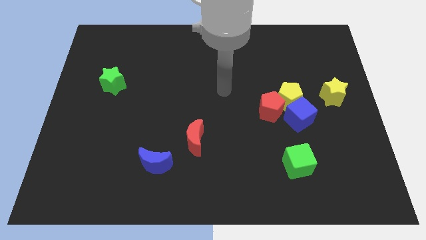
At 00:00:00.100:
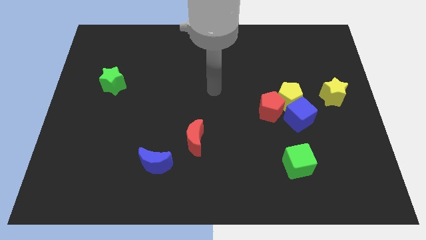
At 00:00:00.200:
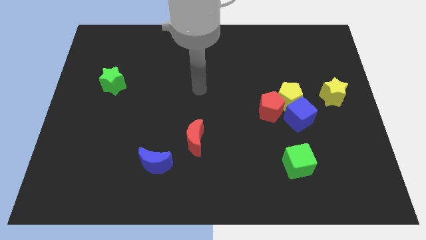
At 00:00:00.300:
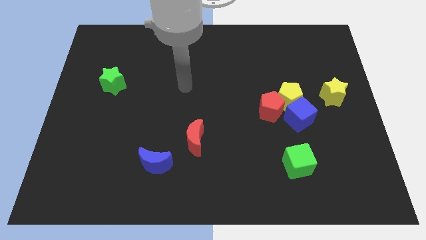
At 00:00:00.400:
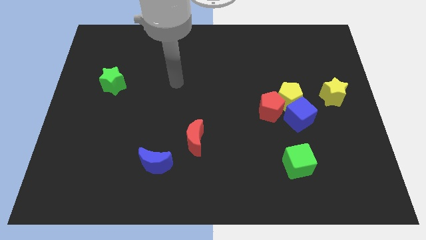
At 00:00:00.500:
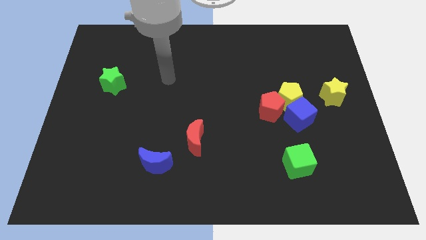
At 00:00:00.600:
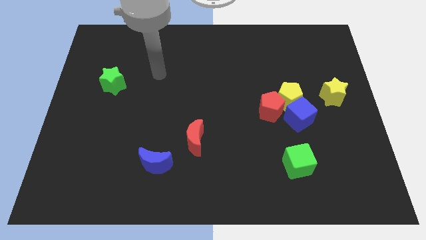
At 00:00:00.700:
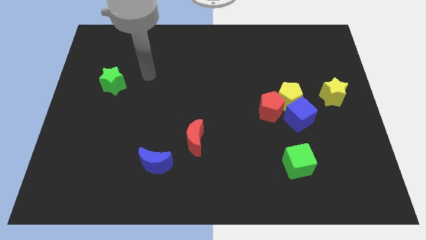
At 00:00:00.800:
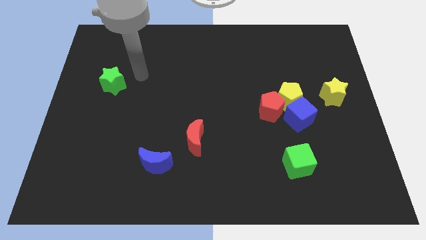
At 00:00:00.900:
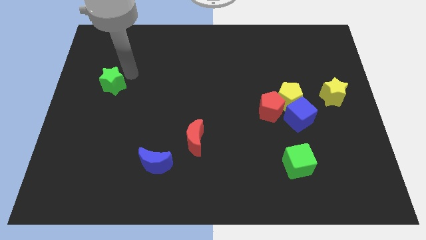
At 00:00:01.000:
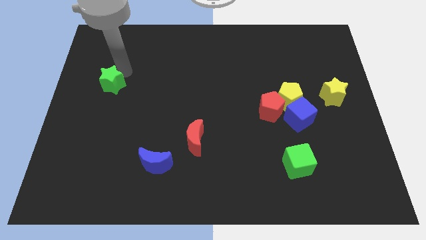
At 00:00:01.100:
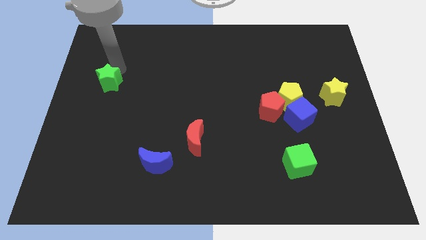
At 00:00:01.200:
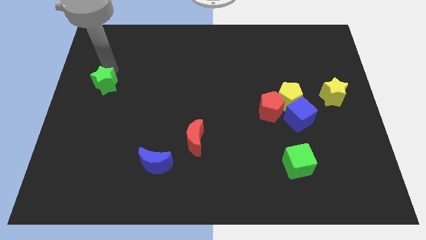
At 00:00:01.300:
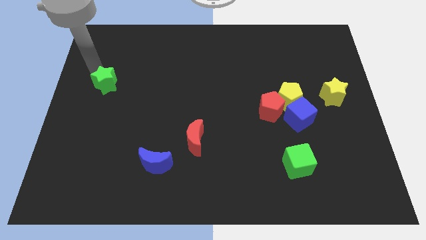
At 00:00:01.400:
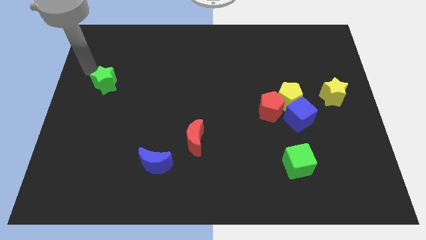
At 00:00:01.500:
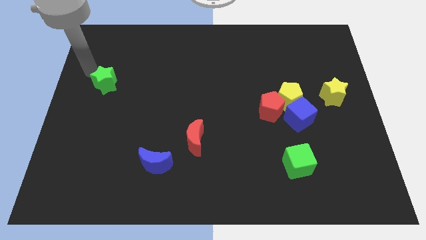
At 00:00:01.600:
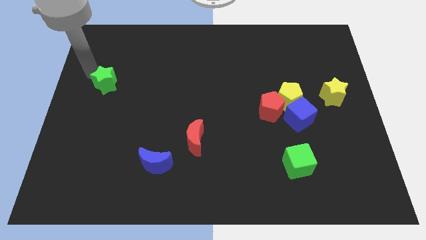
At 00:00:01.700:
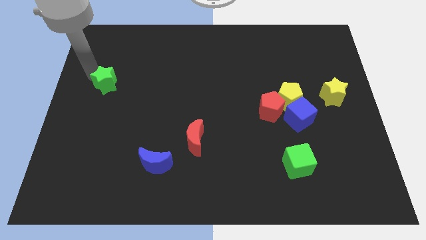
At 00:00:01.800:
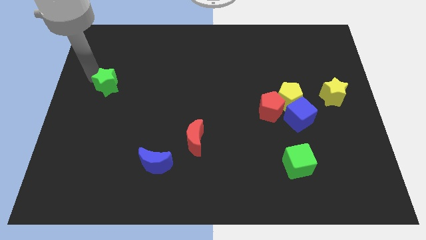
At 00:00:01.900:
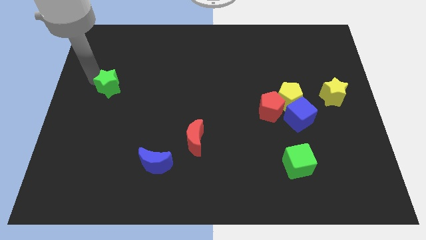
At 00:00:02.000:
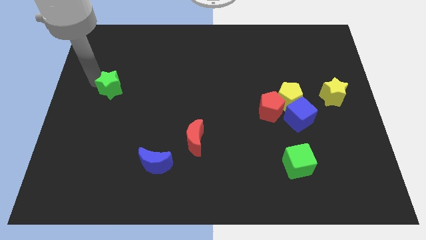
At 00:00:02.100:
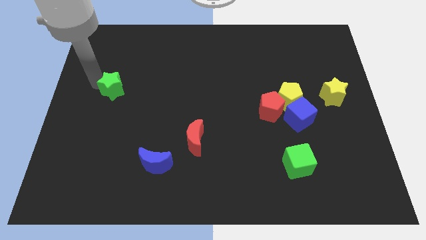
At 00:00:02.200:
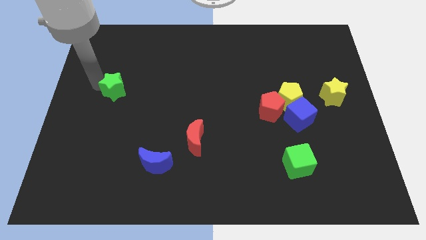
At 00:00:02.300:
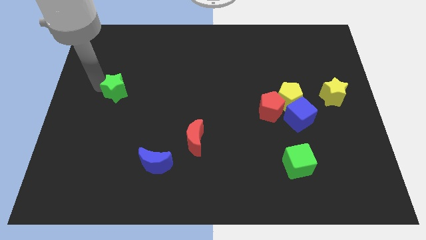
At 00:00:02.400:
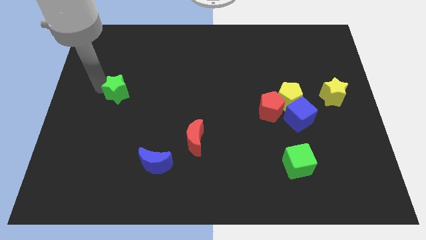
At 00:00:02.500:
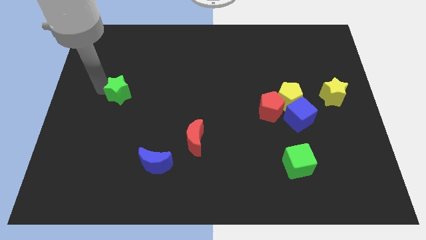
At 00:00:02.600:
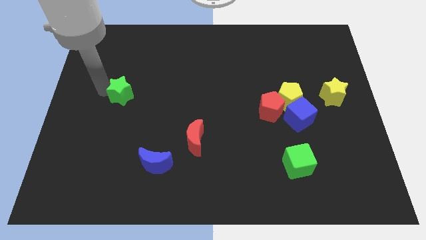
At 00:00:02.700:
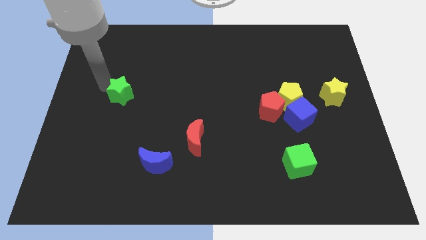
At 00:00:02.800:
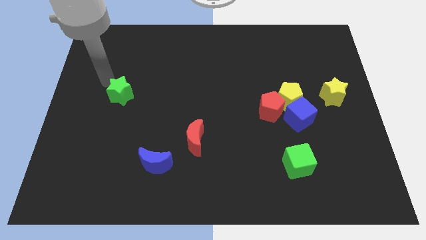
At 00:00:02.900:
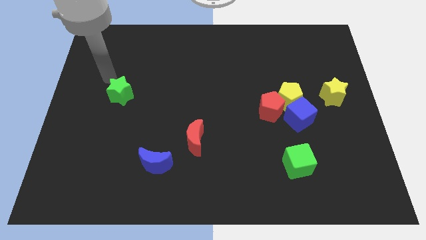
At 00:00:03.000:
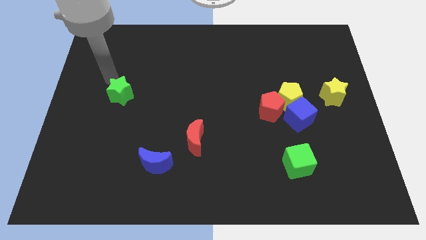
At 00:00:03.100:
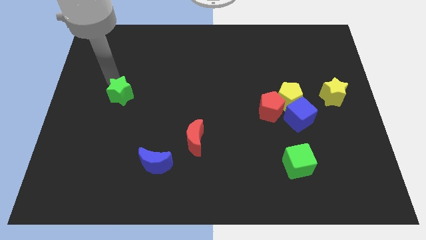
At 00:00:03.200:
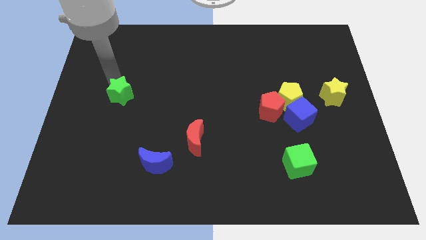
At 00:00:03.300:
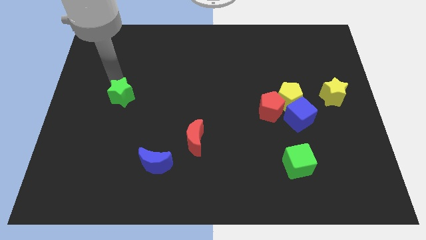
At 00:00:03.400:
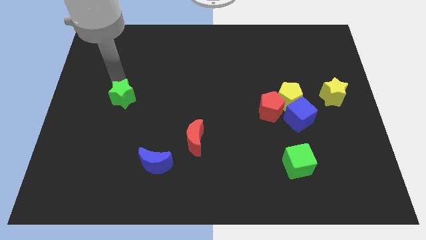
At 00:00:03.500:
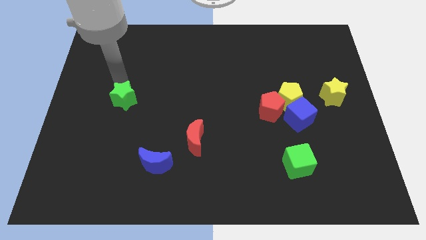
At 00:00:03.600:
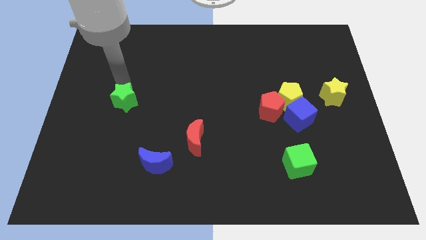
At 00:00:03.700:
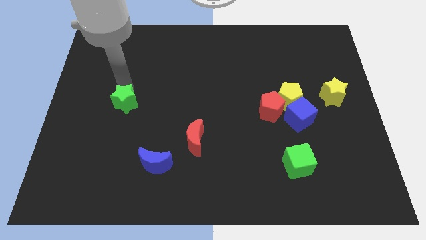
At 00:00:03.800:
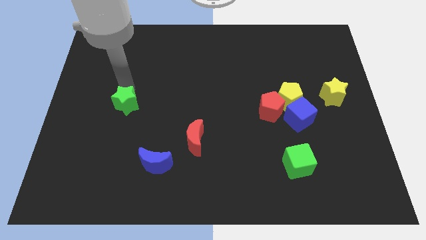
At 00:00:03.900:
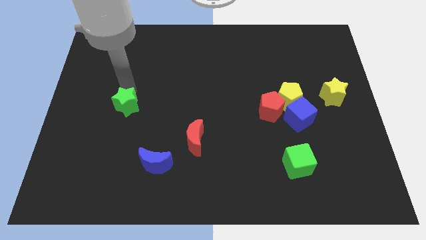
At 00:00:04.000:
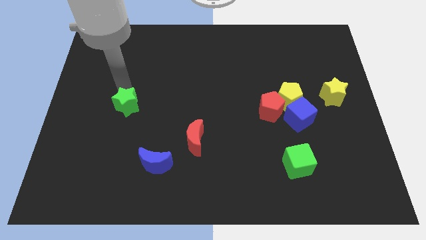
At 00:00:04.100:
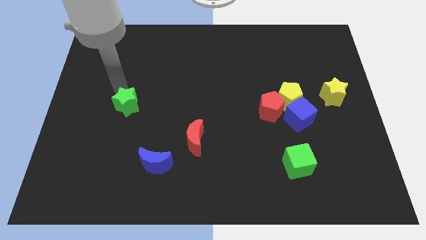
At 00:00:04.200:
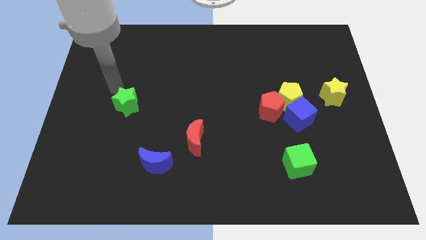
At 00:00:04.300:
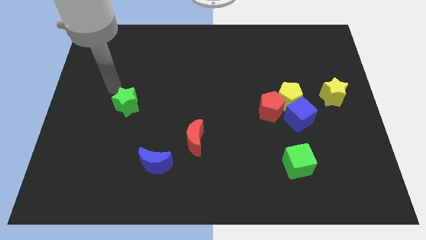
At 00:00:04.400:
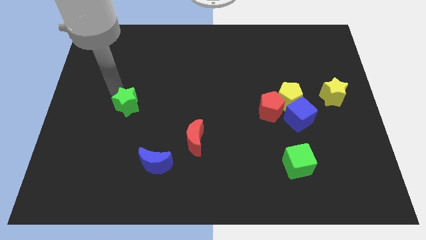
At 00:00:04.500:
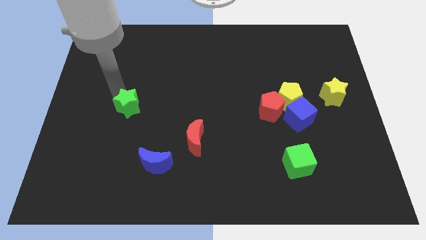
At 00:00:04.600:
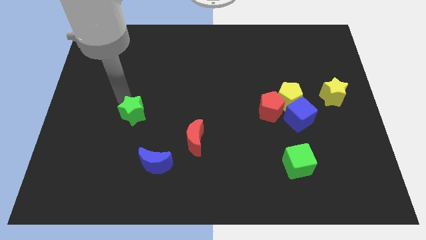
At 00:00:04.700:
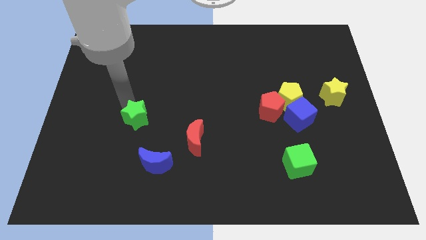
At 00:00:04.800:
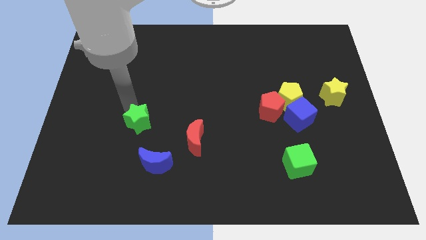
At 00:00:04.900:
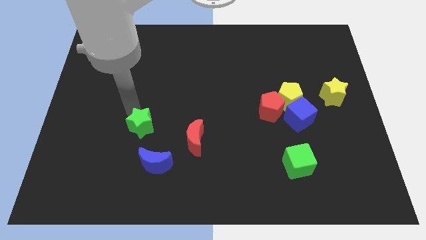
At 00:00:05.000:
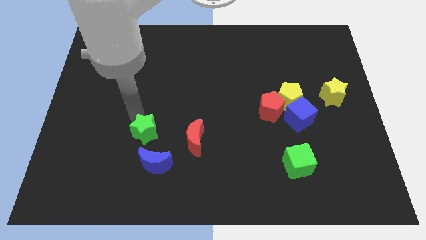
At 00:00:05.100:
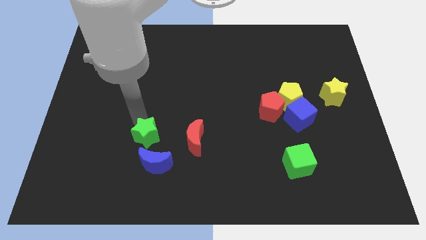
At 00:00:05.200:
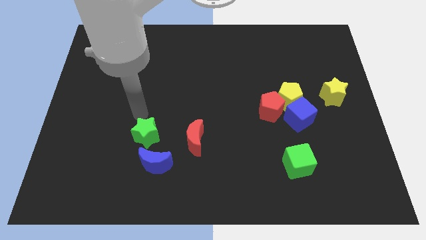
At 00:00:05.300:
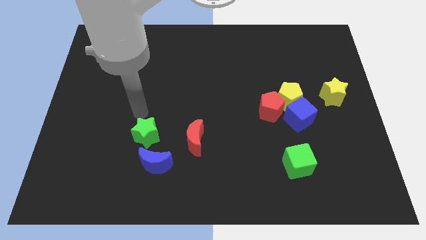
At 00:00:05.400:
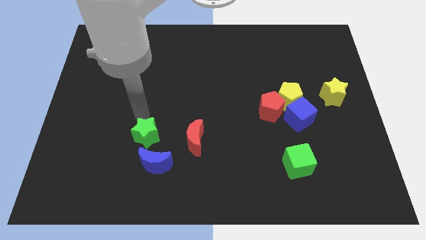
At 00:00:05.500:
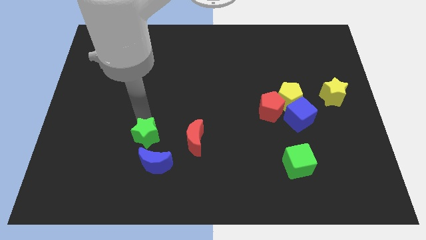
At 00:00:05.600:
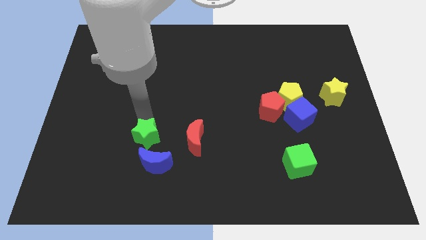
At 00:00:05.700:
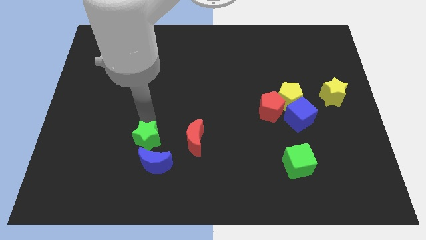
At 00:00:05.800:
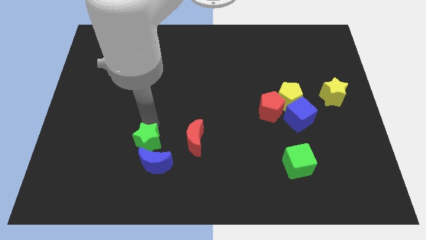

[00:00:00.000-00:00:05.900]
push the green star close to the blue moon
